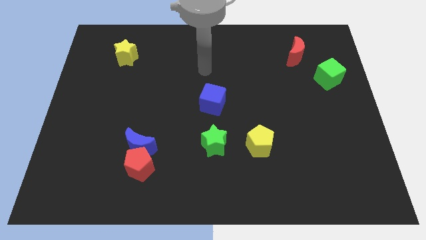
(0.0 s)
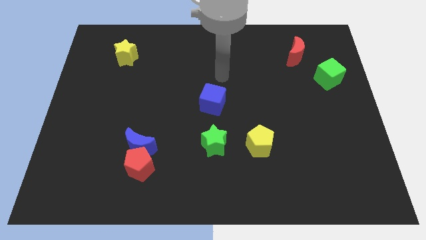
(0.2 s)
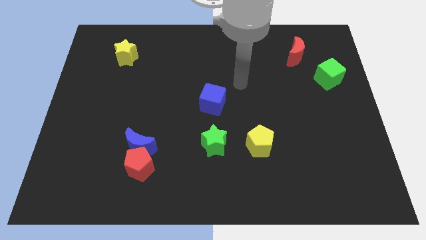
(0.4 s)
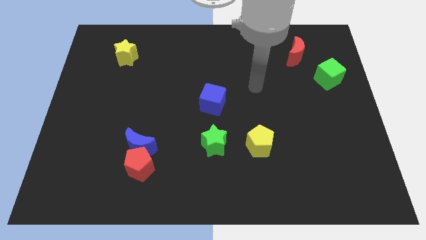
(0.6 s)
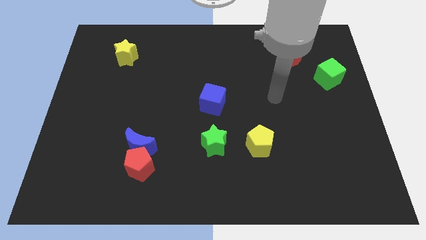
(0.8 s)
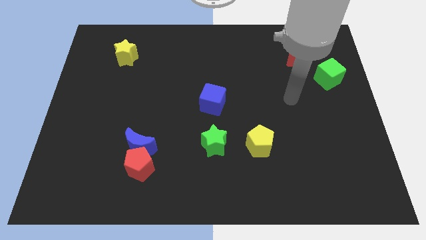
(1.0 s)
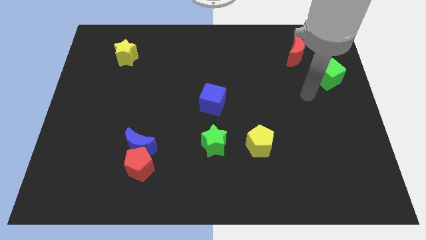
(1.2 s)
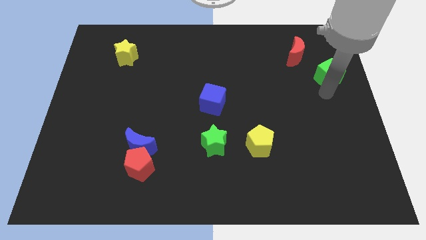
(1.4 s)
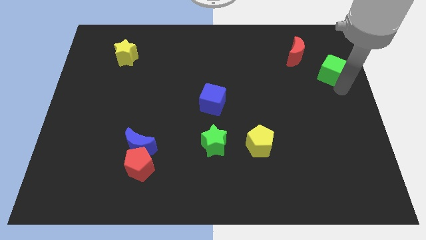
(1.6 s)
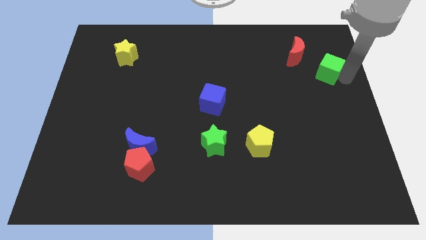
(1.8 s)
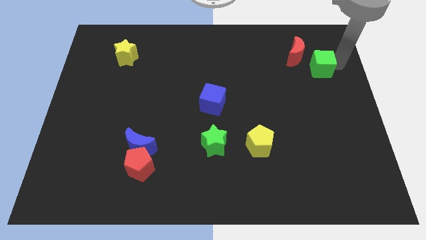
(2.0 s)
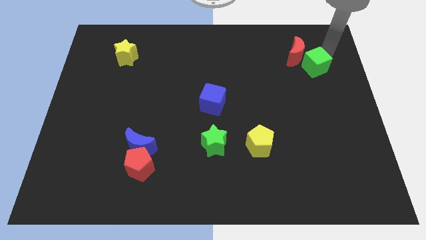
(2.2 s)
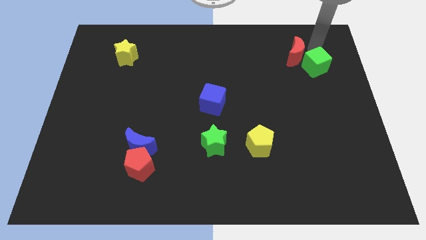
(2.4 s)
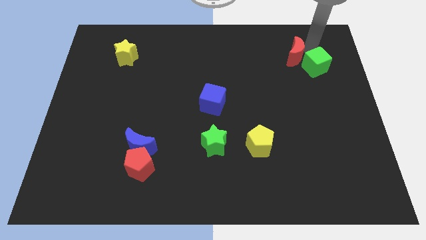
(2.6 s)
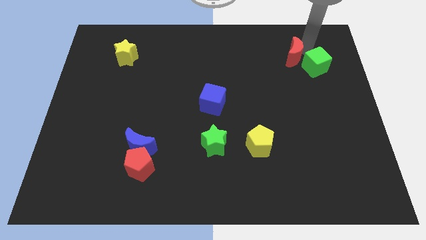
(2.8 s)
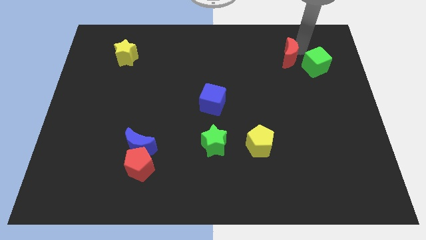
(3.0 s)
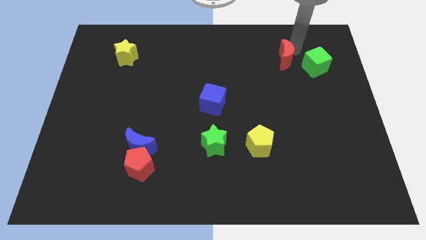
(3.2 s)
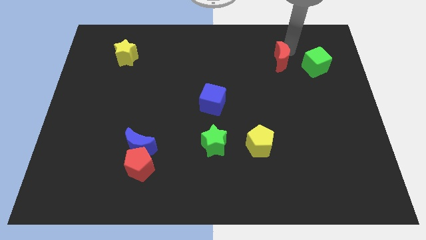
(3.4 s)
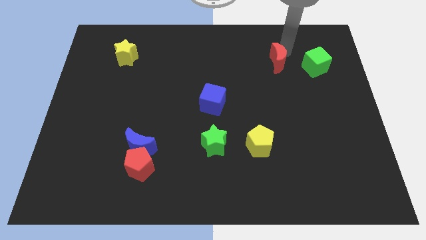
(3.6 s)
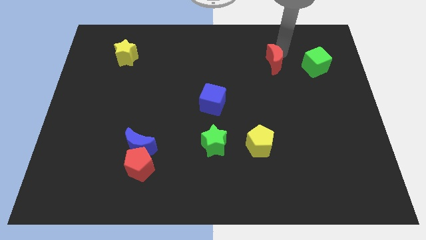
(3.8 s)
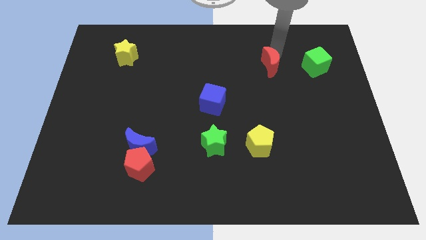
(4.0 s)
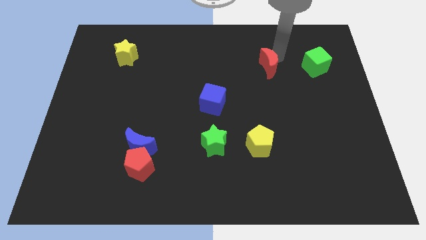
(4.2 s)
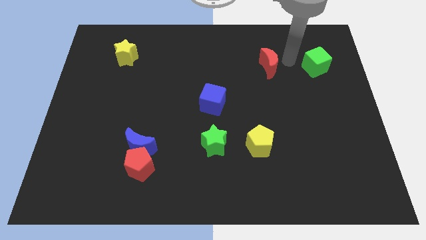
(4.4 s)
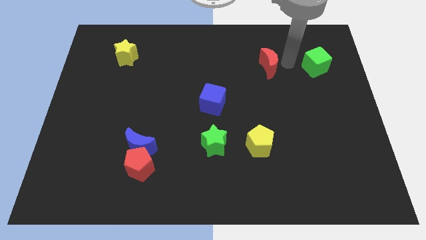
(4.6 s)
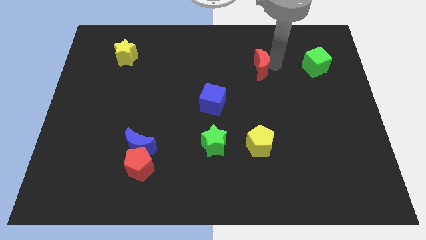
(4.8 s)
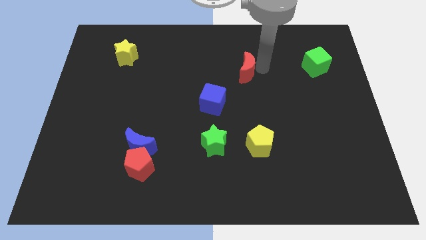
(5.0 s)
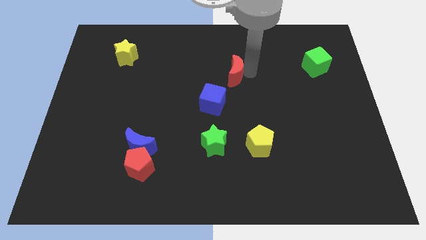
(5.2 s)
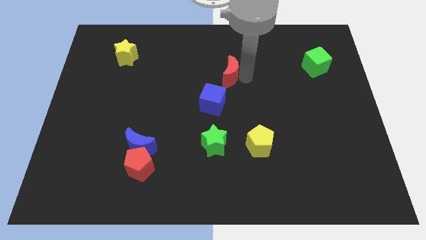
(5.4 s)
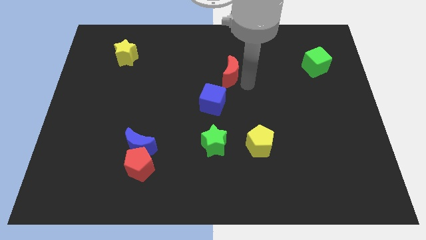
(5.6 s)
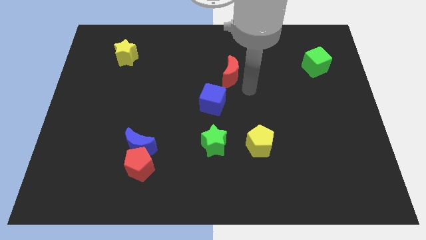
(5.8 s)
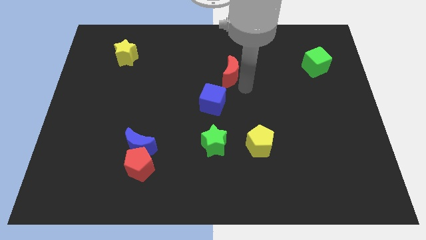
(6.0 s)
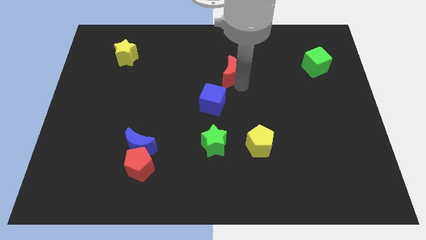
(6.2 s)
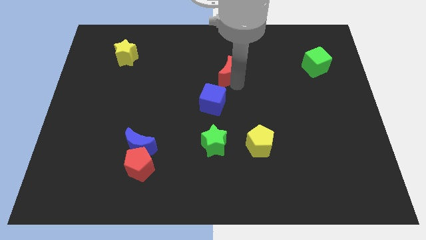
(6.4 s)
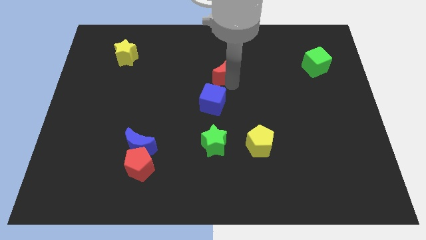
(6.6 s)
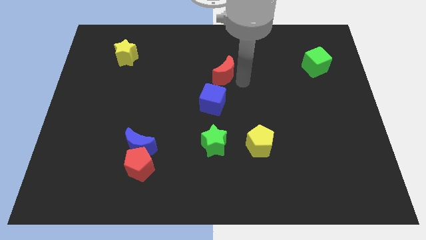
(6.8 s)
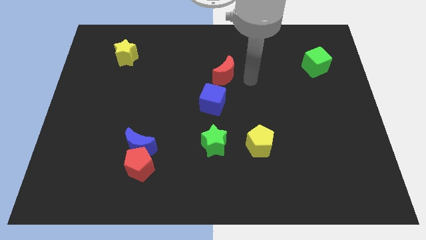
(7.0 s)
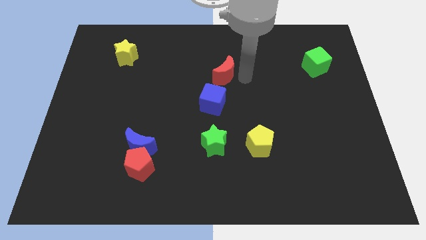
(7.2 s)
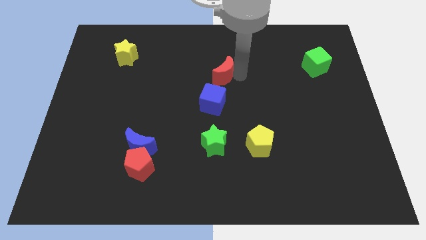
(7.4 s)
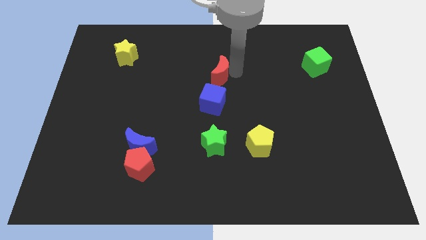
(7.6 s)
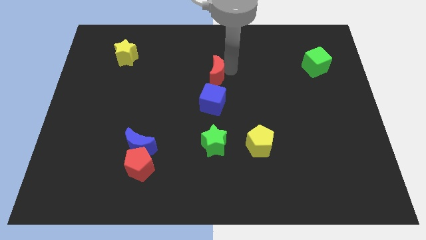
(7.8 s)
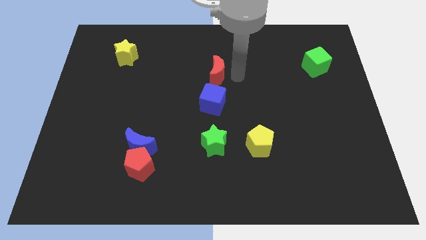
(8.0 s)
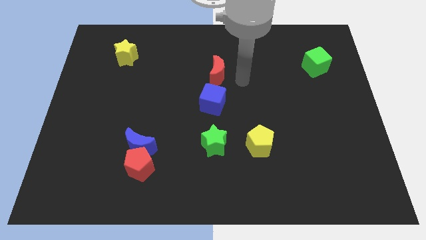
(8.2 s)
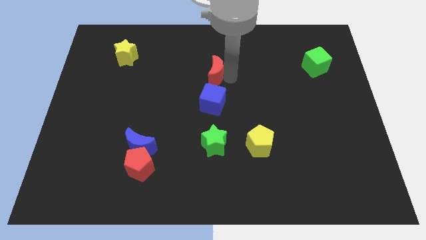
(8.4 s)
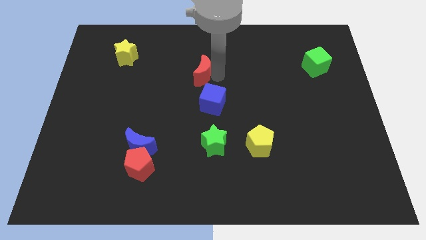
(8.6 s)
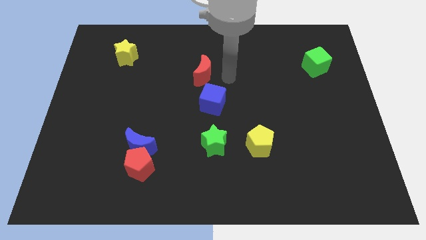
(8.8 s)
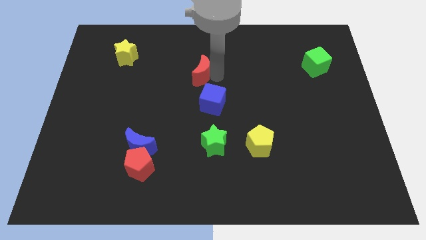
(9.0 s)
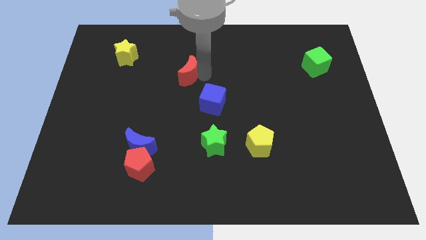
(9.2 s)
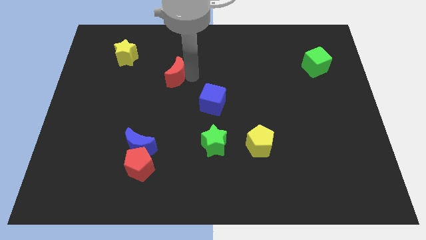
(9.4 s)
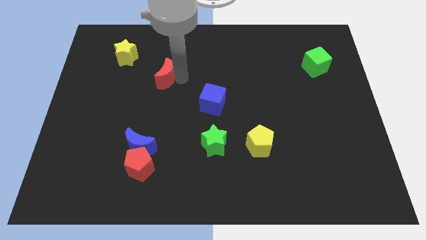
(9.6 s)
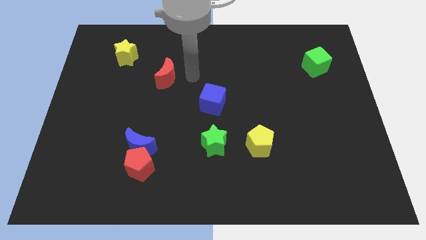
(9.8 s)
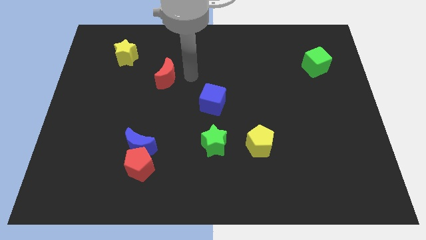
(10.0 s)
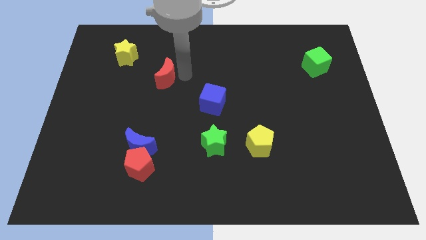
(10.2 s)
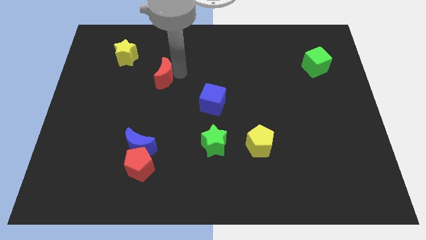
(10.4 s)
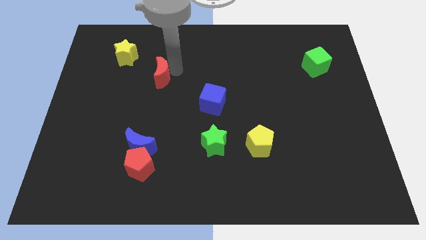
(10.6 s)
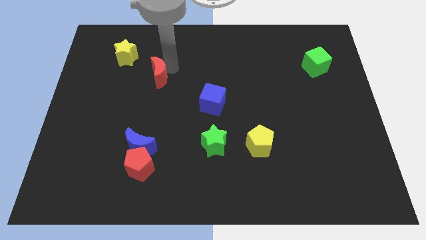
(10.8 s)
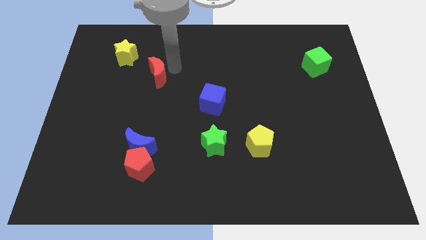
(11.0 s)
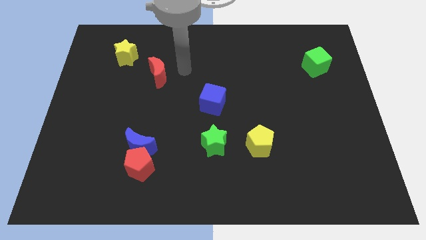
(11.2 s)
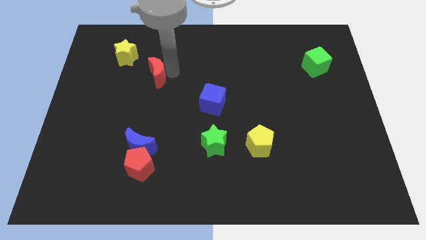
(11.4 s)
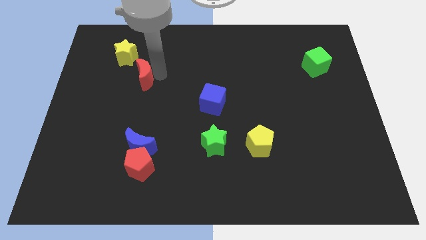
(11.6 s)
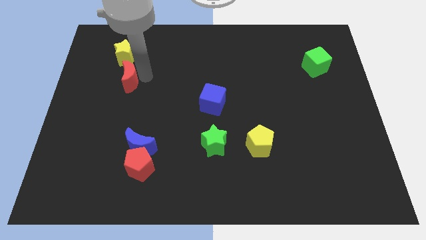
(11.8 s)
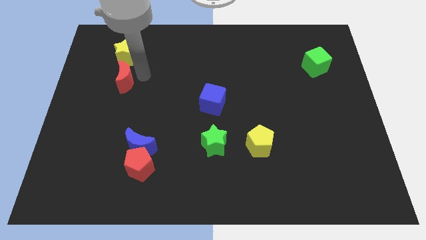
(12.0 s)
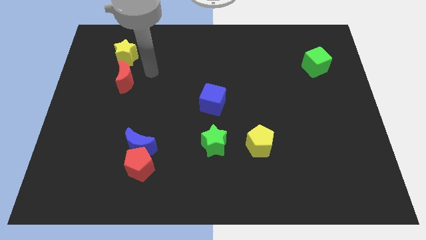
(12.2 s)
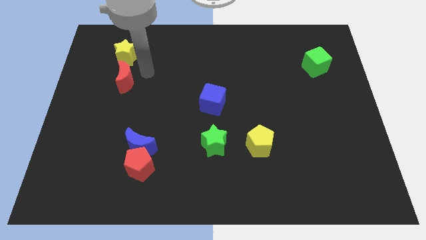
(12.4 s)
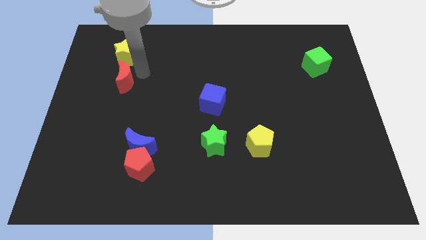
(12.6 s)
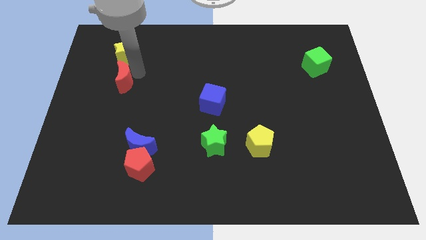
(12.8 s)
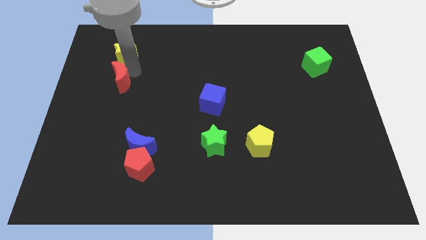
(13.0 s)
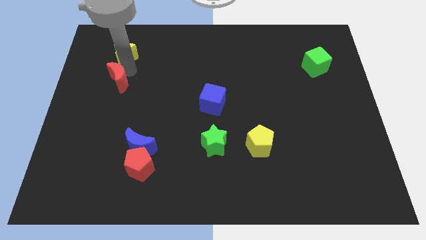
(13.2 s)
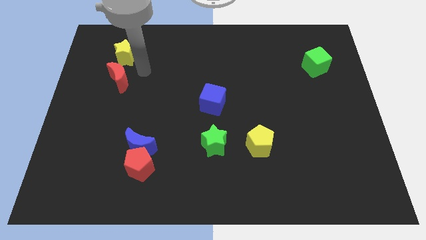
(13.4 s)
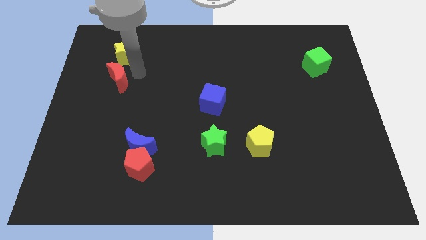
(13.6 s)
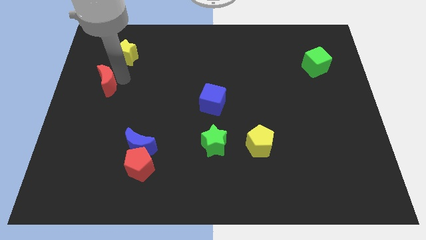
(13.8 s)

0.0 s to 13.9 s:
move the red moon to the left side of the board
